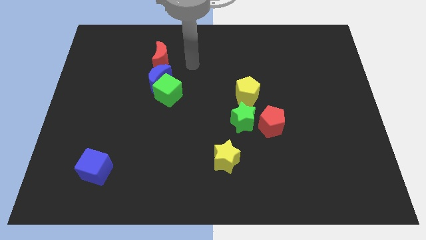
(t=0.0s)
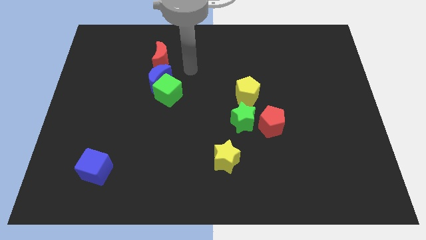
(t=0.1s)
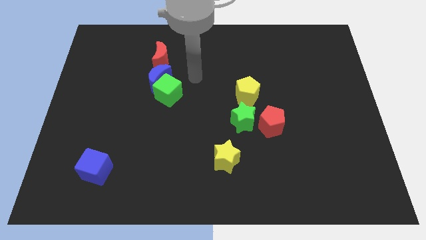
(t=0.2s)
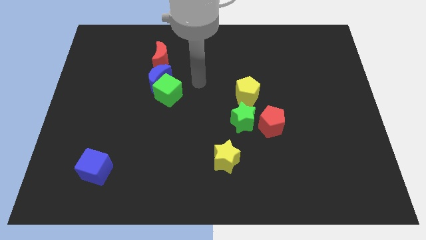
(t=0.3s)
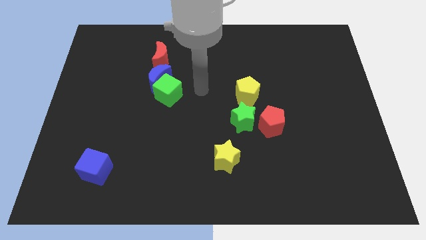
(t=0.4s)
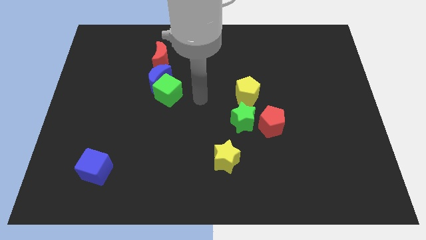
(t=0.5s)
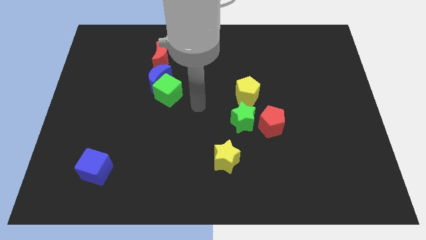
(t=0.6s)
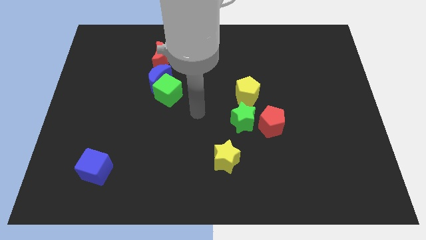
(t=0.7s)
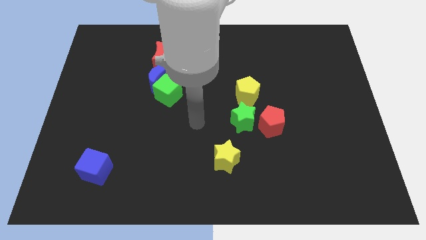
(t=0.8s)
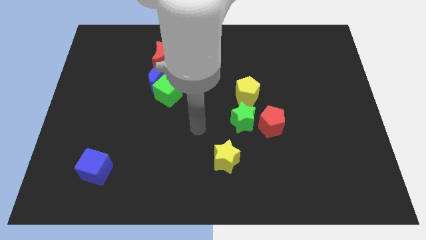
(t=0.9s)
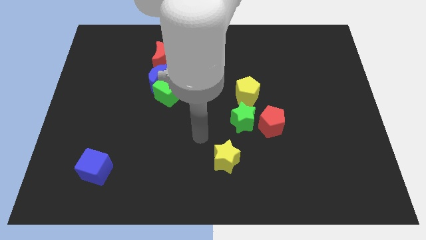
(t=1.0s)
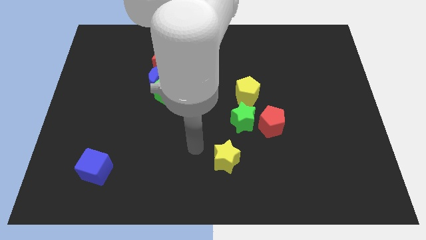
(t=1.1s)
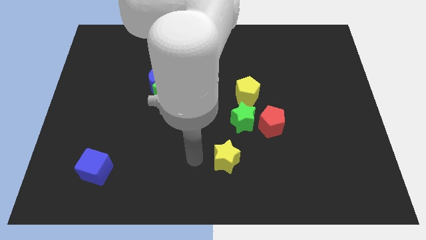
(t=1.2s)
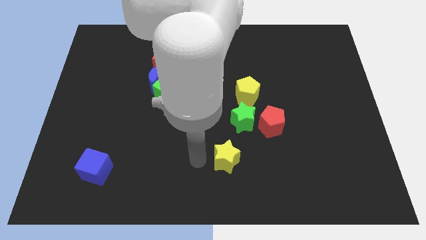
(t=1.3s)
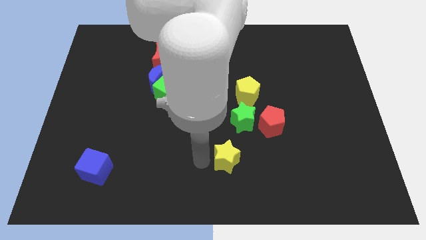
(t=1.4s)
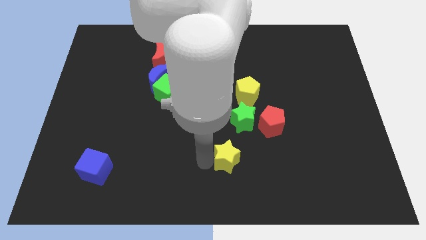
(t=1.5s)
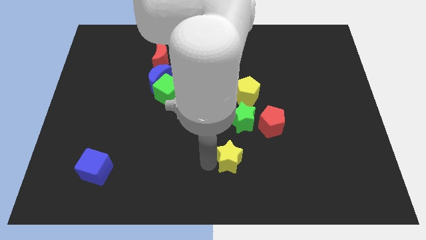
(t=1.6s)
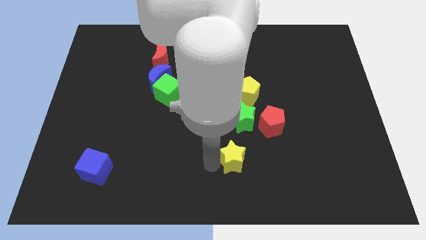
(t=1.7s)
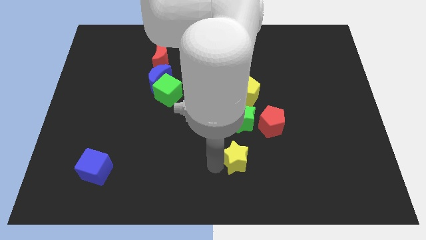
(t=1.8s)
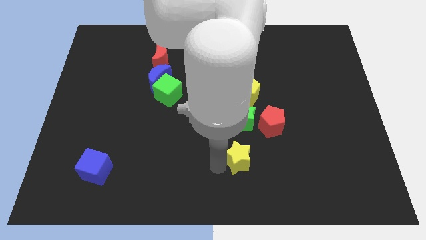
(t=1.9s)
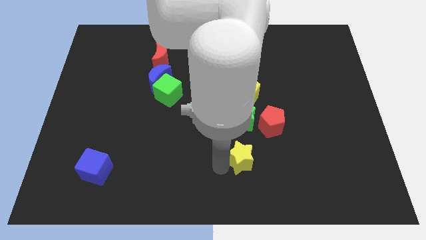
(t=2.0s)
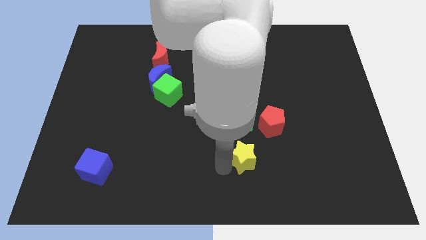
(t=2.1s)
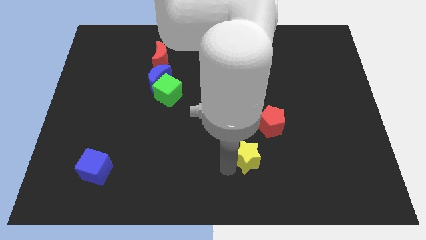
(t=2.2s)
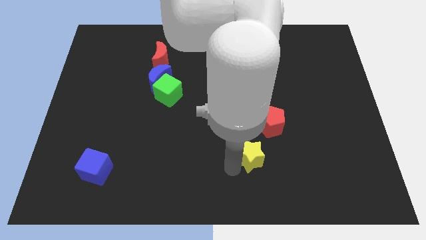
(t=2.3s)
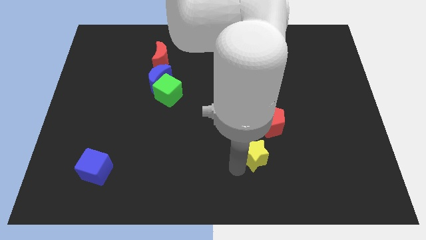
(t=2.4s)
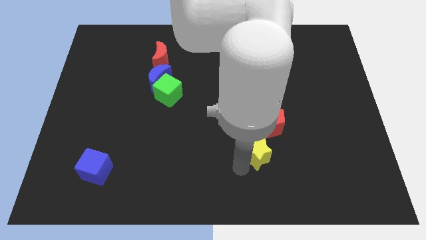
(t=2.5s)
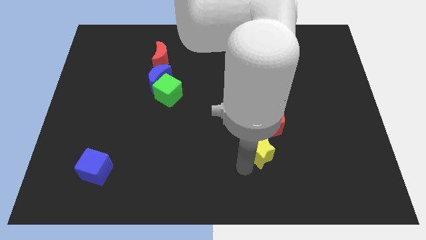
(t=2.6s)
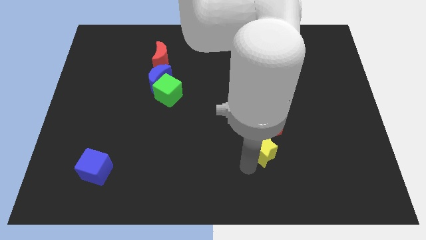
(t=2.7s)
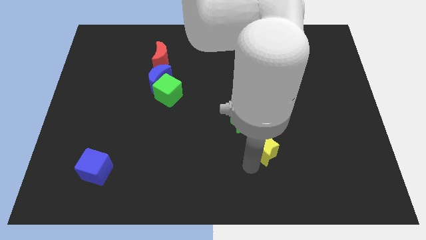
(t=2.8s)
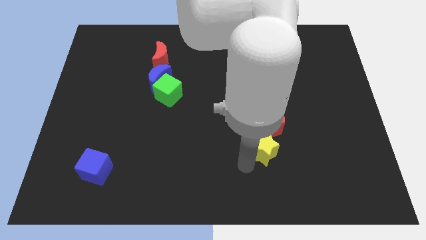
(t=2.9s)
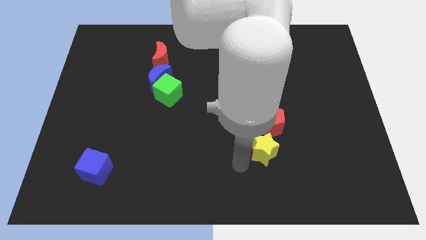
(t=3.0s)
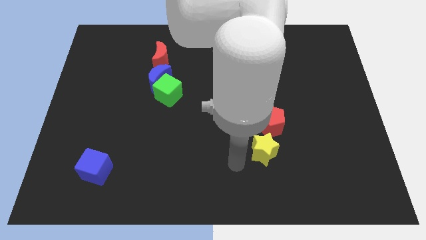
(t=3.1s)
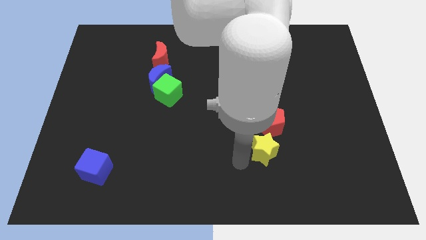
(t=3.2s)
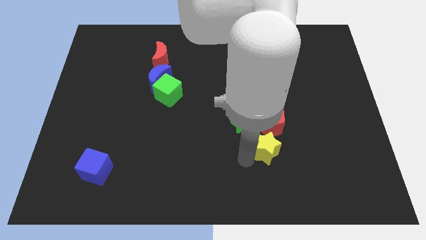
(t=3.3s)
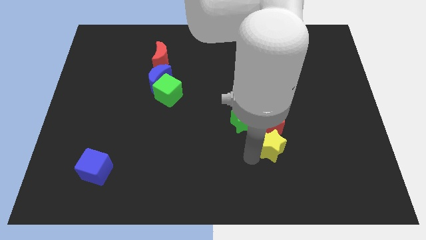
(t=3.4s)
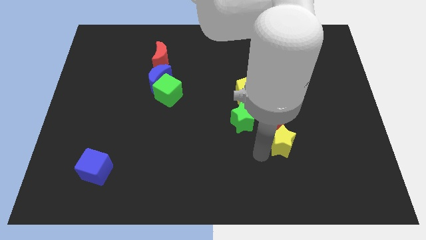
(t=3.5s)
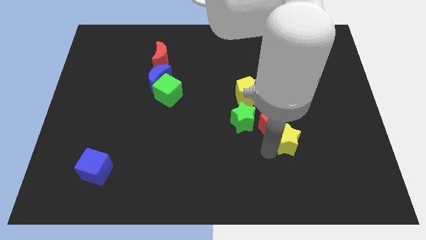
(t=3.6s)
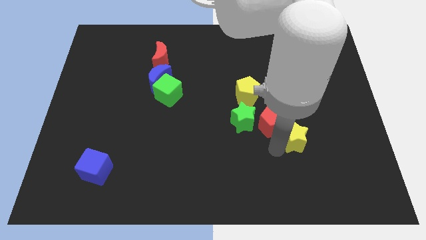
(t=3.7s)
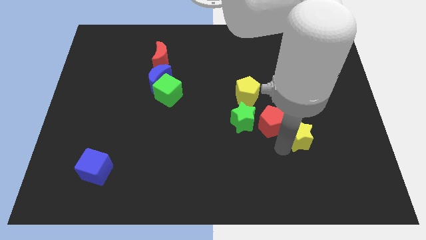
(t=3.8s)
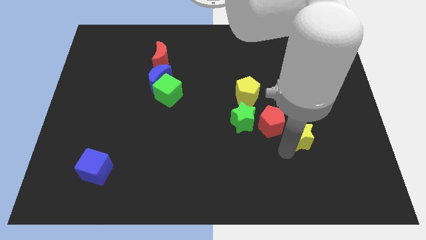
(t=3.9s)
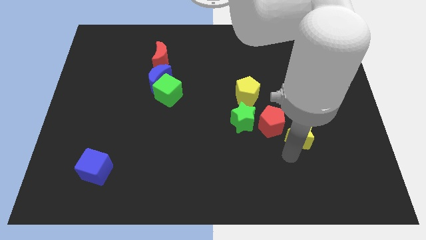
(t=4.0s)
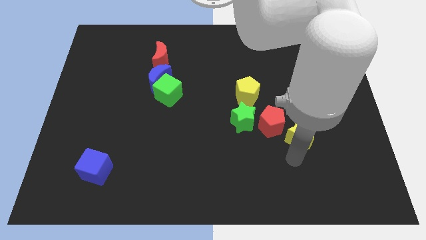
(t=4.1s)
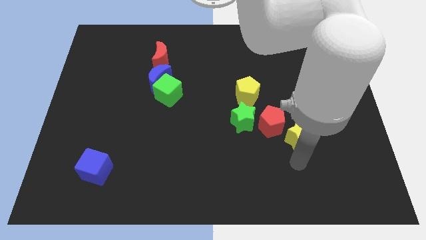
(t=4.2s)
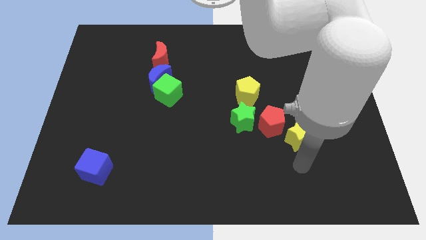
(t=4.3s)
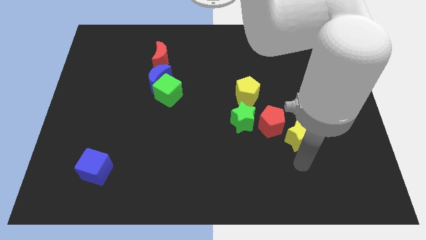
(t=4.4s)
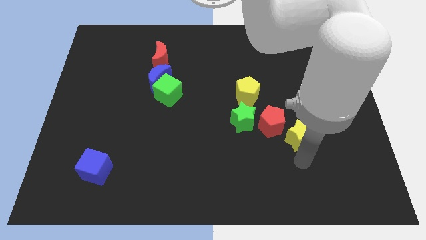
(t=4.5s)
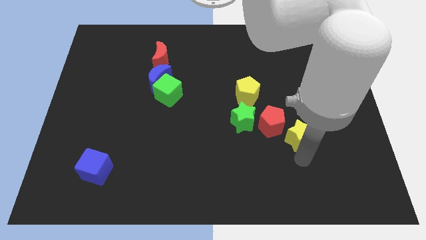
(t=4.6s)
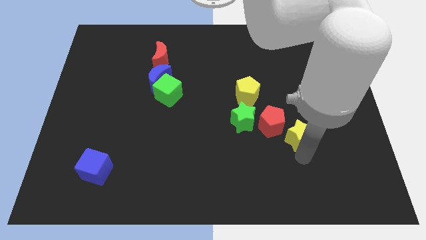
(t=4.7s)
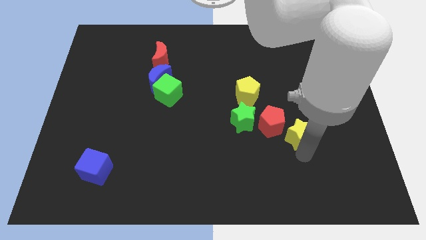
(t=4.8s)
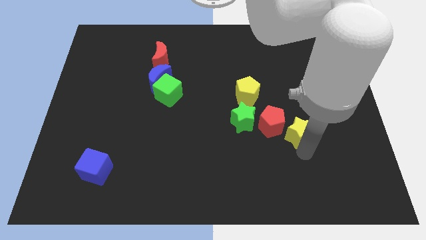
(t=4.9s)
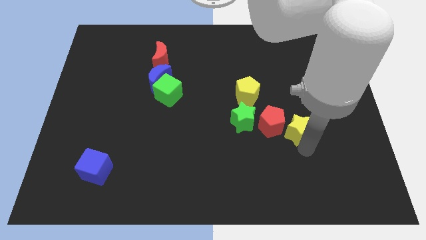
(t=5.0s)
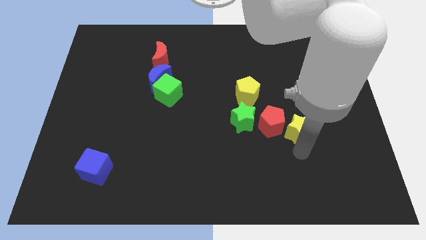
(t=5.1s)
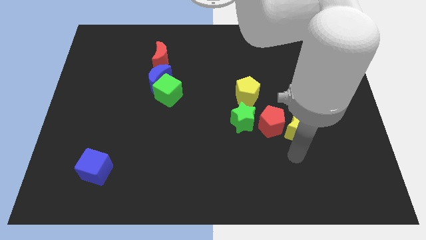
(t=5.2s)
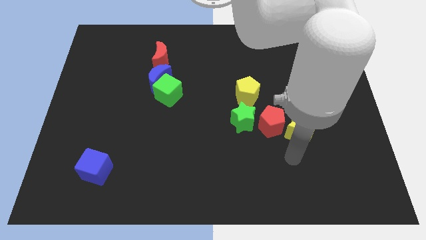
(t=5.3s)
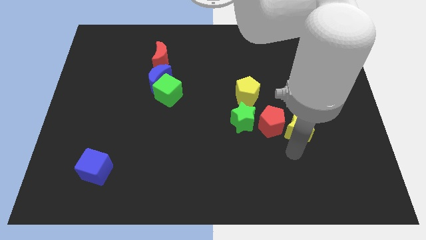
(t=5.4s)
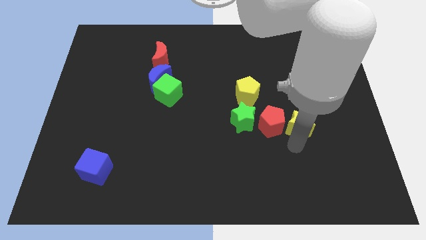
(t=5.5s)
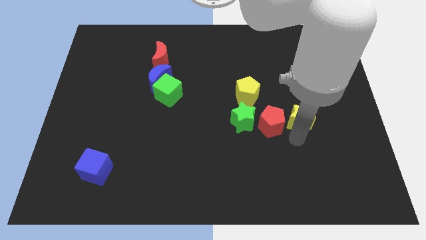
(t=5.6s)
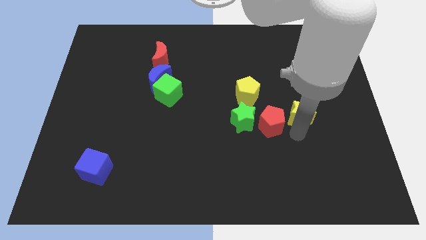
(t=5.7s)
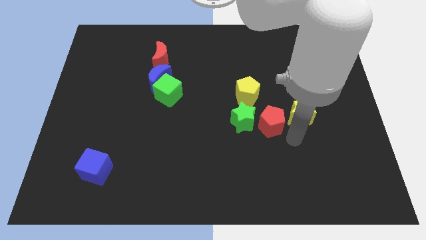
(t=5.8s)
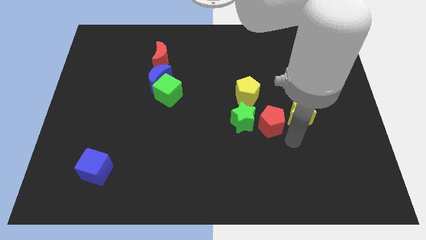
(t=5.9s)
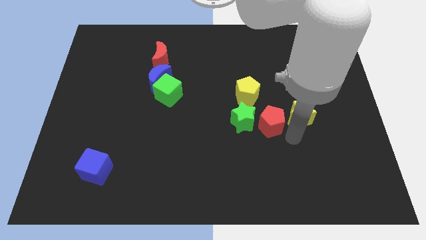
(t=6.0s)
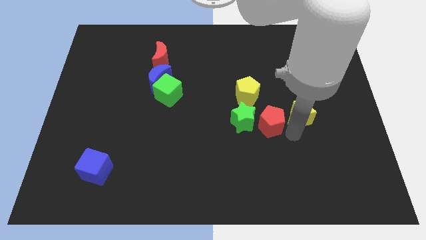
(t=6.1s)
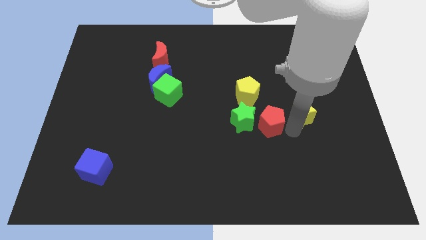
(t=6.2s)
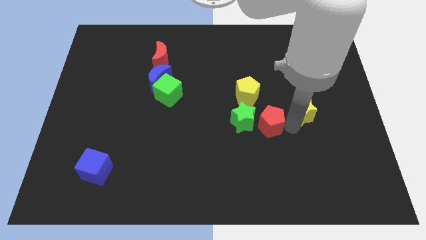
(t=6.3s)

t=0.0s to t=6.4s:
move the yellow star up and to the right

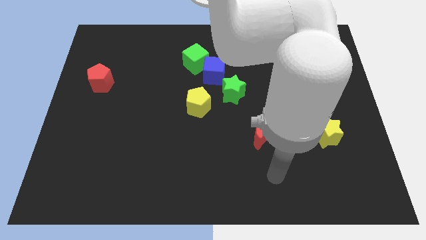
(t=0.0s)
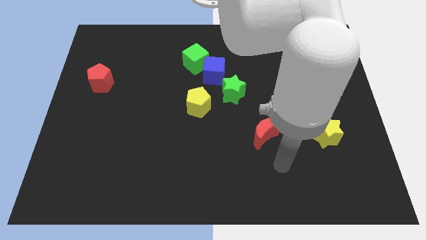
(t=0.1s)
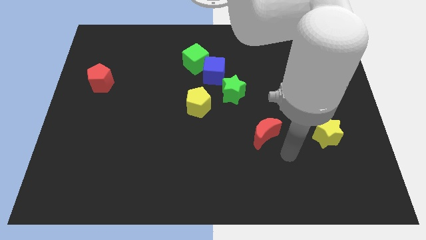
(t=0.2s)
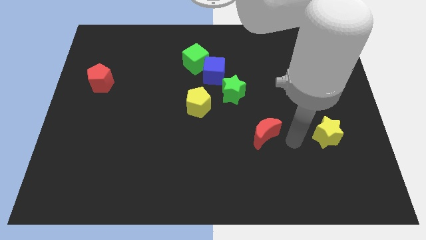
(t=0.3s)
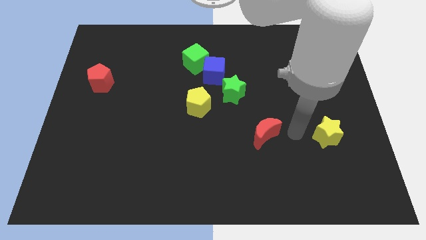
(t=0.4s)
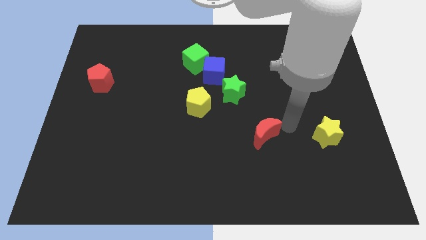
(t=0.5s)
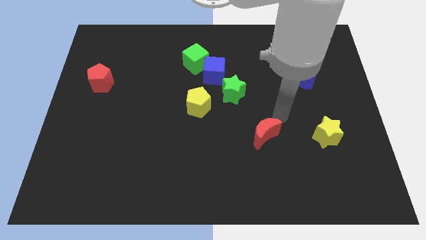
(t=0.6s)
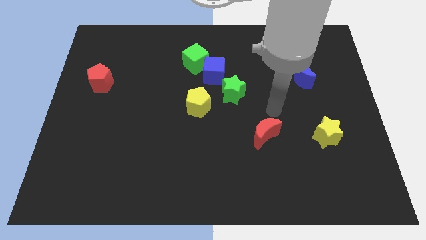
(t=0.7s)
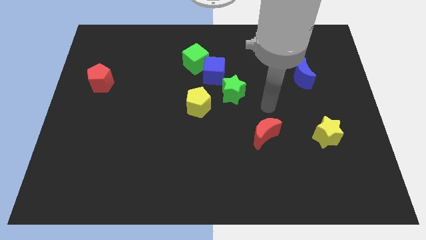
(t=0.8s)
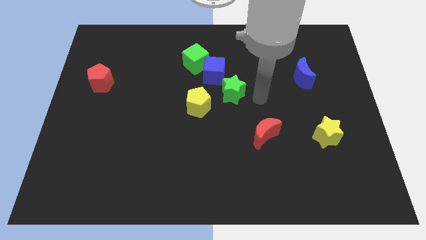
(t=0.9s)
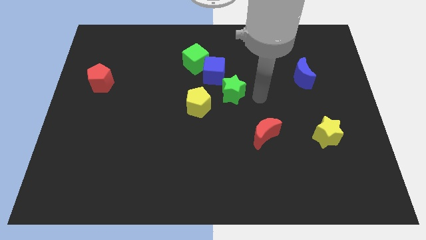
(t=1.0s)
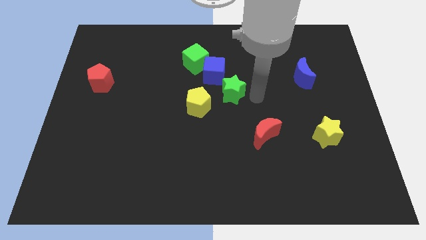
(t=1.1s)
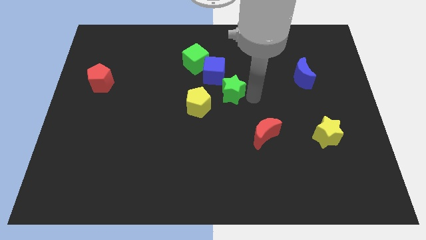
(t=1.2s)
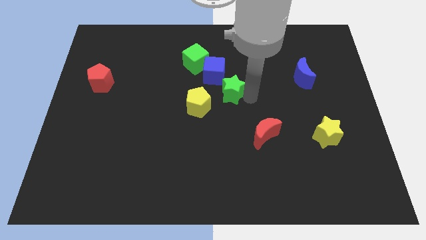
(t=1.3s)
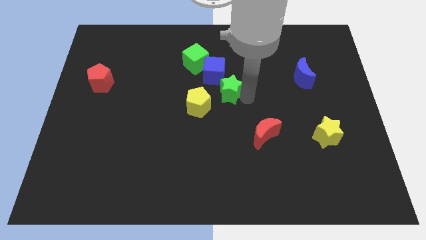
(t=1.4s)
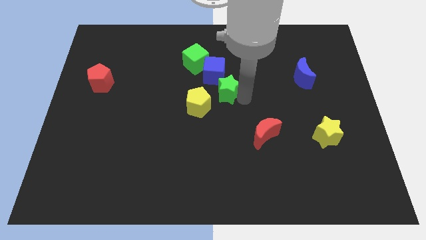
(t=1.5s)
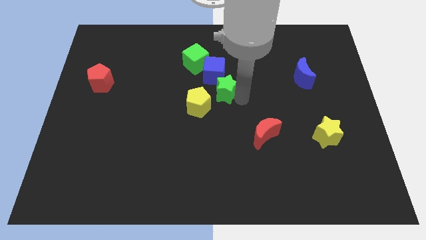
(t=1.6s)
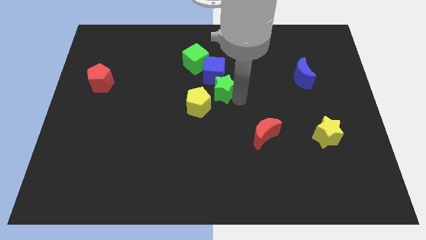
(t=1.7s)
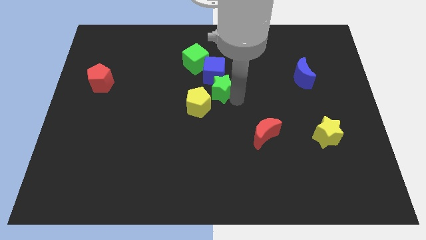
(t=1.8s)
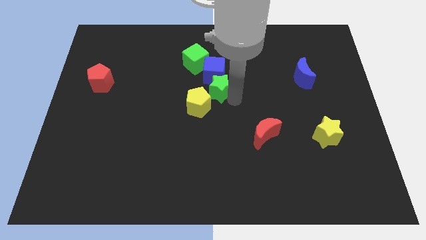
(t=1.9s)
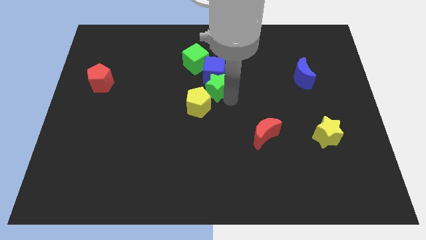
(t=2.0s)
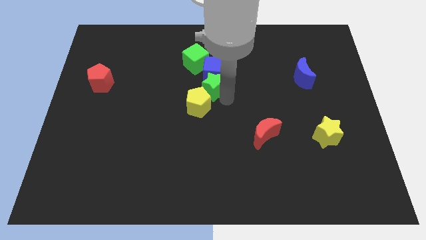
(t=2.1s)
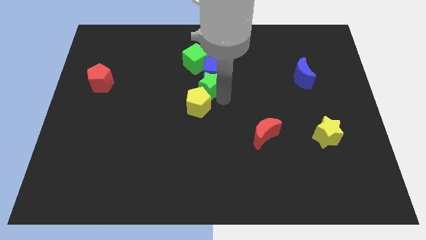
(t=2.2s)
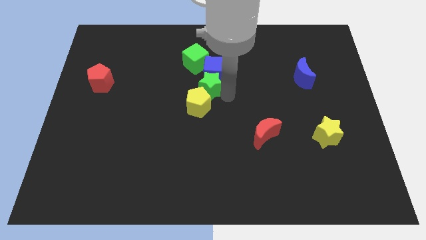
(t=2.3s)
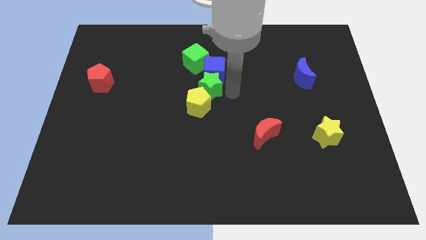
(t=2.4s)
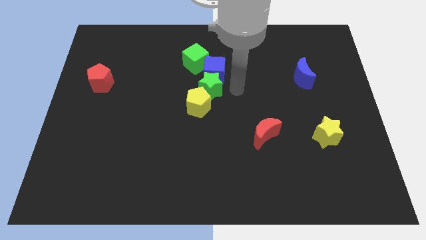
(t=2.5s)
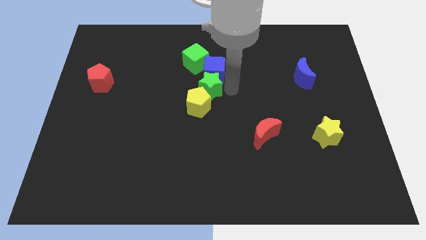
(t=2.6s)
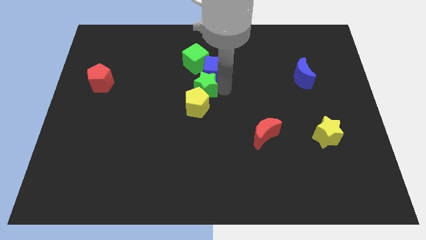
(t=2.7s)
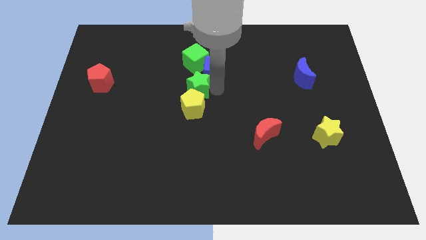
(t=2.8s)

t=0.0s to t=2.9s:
slightly slide the green star to the left
